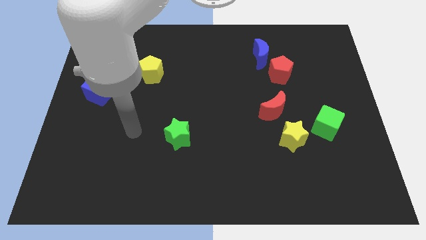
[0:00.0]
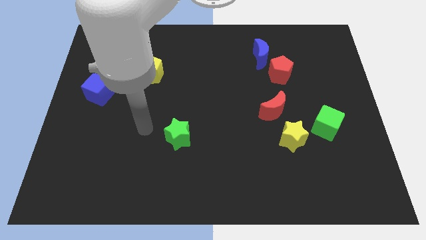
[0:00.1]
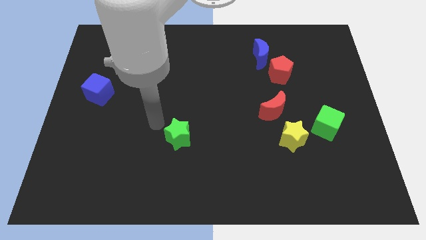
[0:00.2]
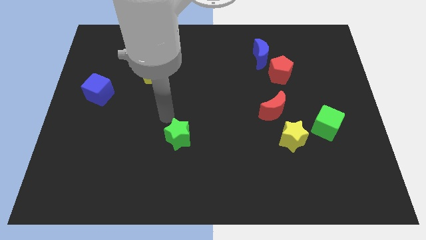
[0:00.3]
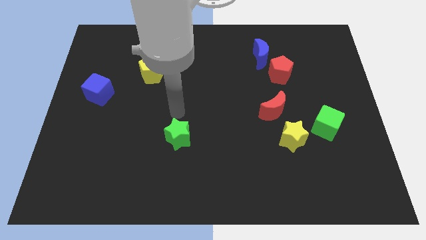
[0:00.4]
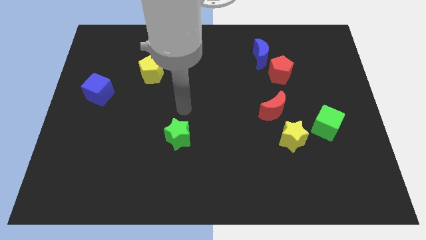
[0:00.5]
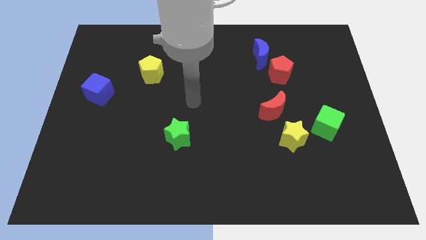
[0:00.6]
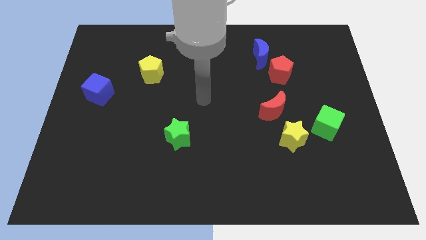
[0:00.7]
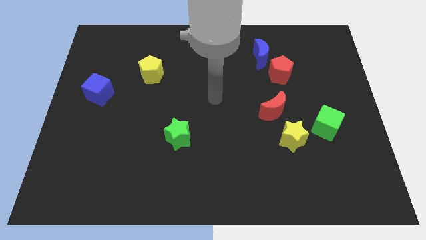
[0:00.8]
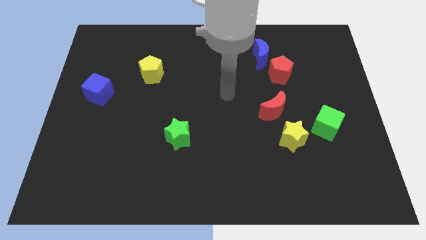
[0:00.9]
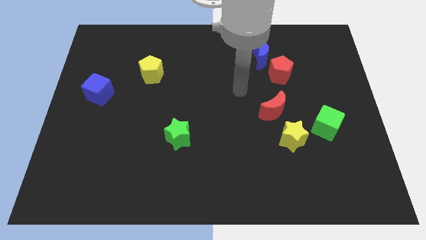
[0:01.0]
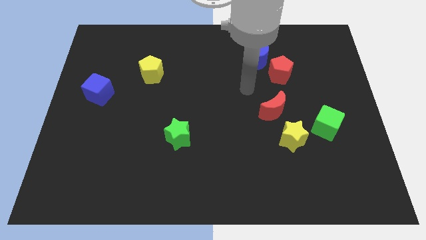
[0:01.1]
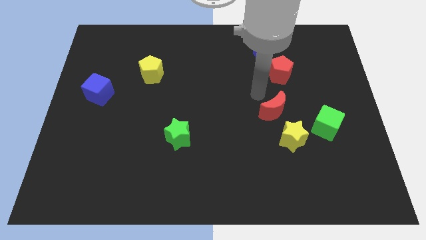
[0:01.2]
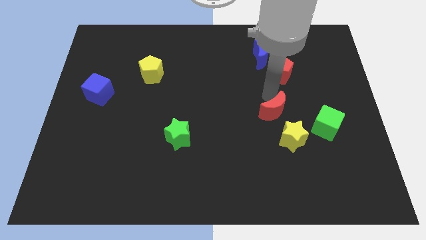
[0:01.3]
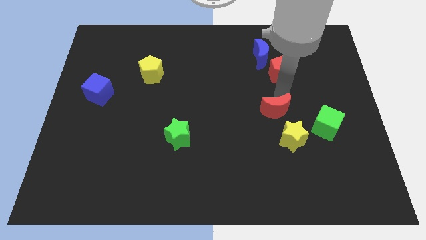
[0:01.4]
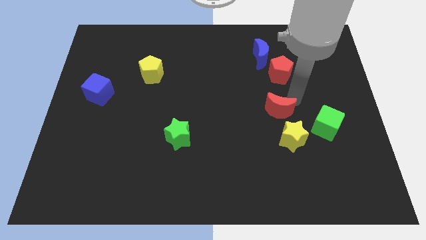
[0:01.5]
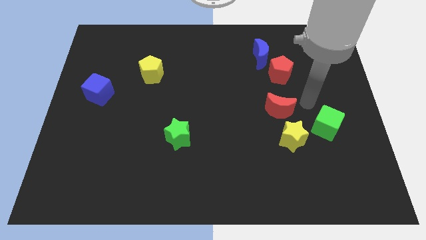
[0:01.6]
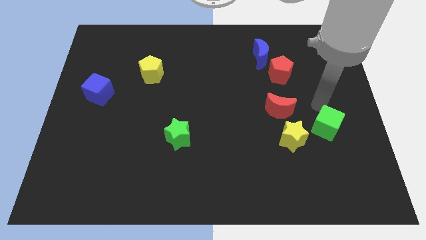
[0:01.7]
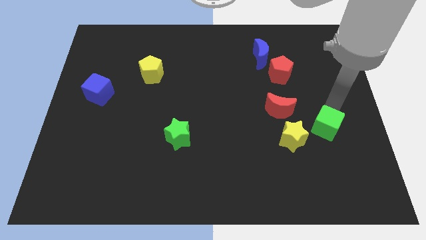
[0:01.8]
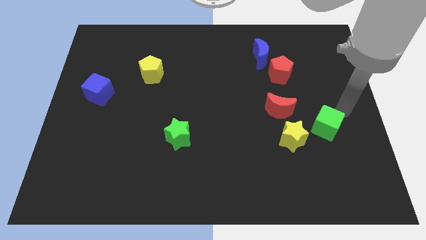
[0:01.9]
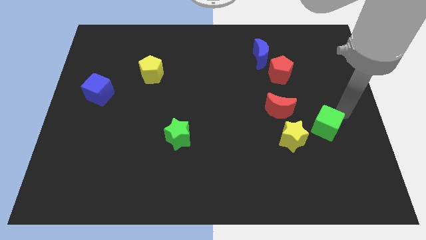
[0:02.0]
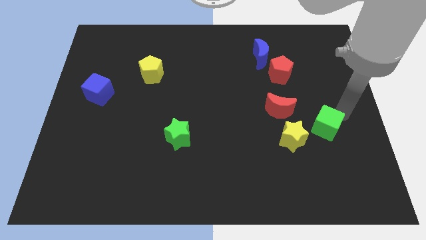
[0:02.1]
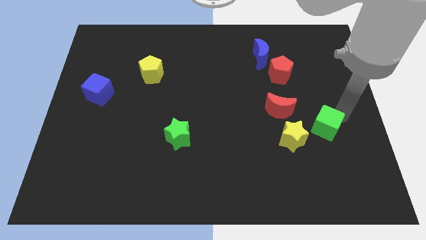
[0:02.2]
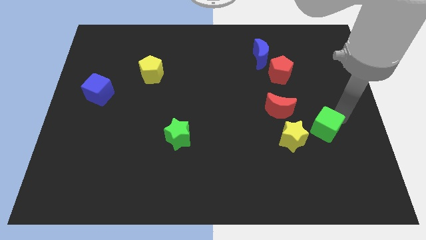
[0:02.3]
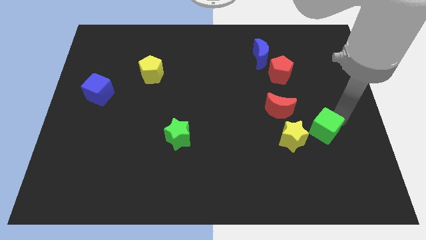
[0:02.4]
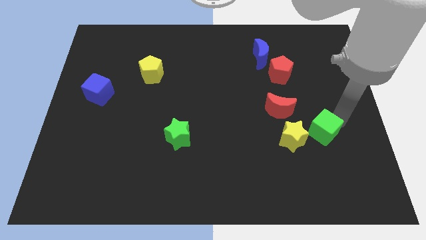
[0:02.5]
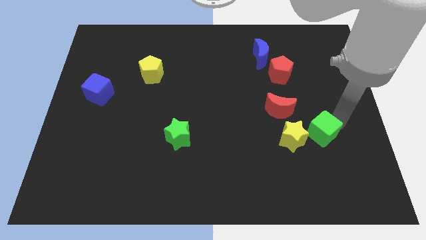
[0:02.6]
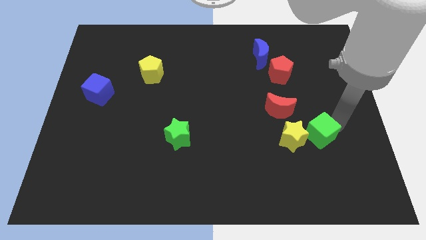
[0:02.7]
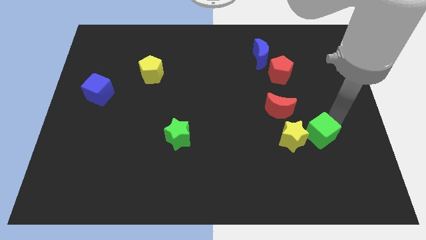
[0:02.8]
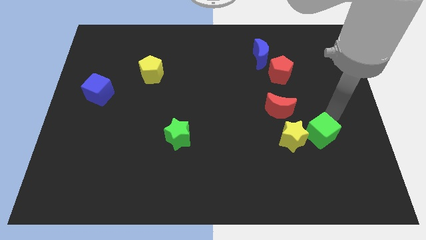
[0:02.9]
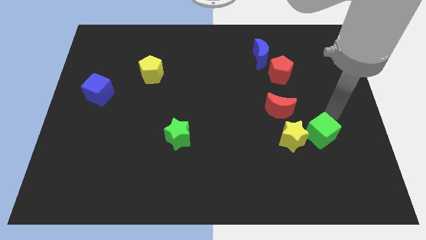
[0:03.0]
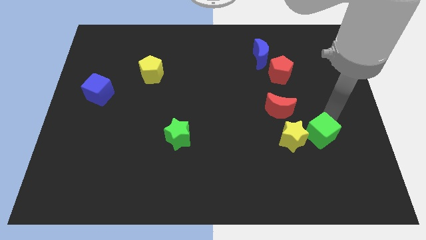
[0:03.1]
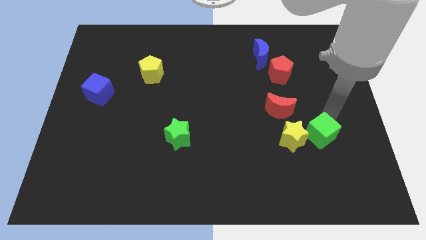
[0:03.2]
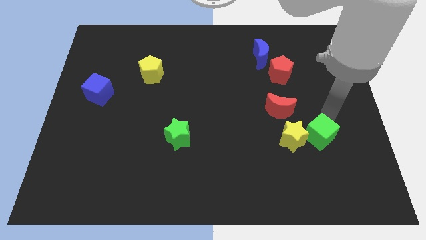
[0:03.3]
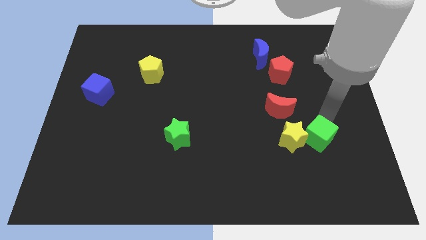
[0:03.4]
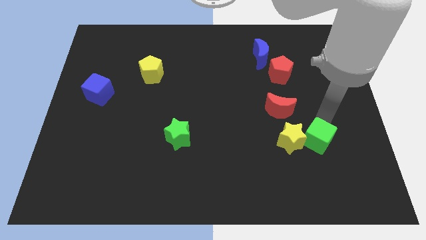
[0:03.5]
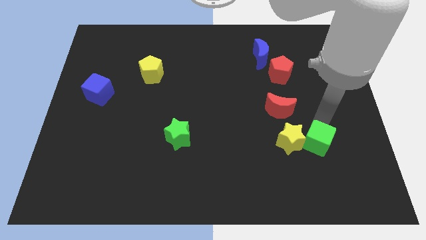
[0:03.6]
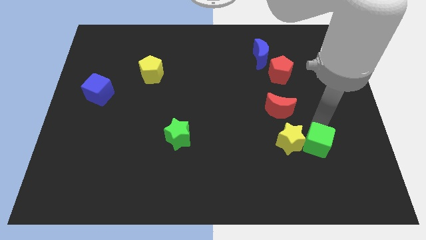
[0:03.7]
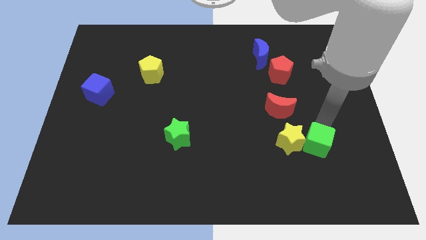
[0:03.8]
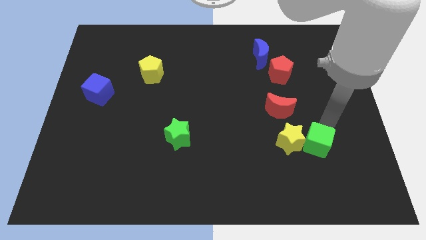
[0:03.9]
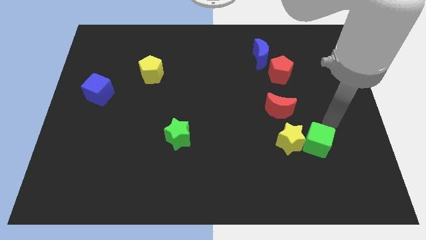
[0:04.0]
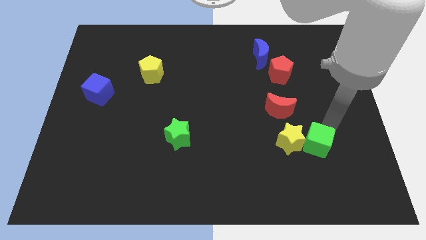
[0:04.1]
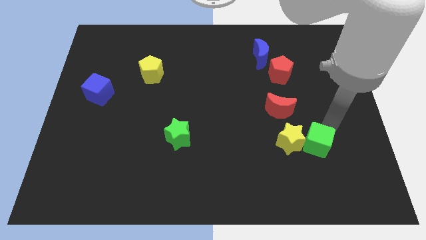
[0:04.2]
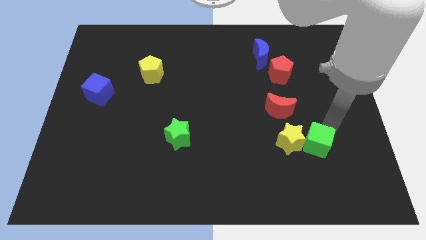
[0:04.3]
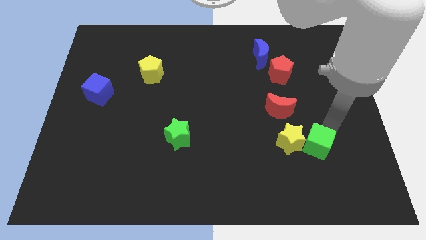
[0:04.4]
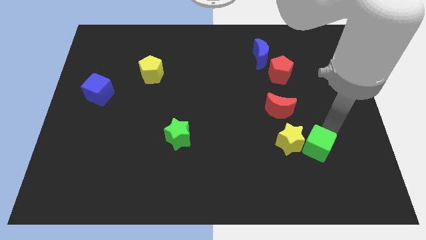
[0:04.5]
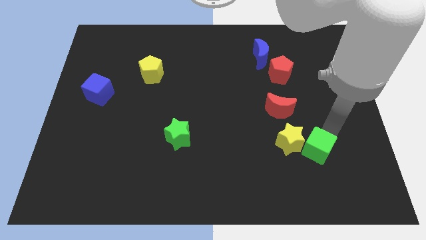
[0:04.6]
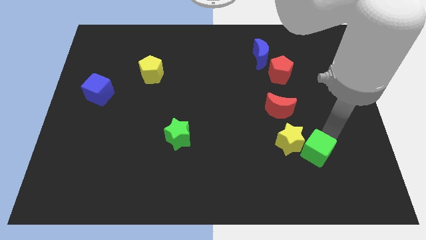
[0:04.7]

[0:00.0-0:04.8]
push the green cube downwards and to the left diagonally slightly

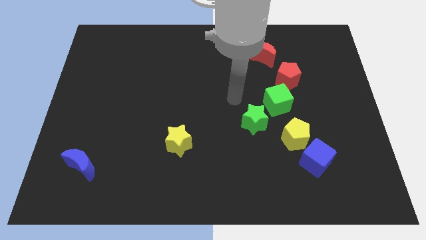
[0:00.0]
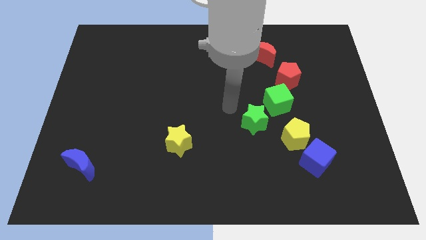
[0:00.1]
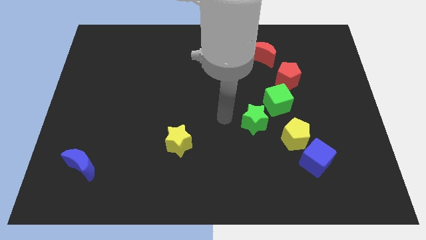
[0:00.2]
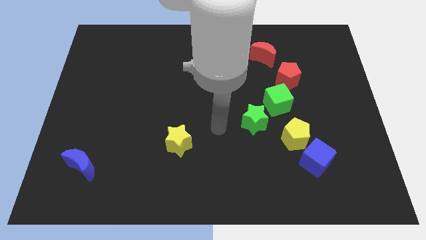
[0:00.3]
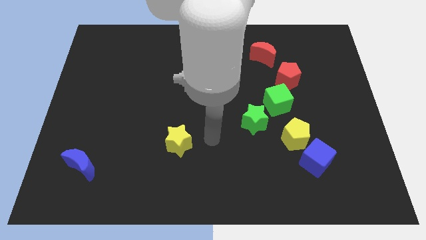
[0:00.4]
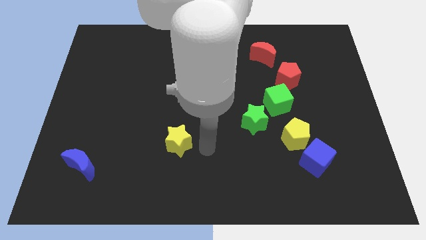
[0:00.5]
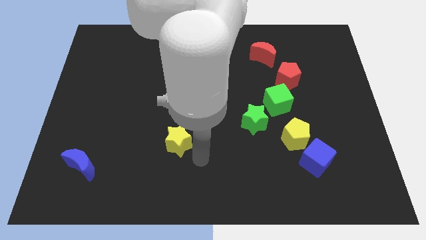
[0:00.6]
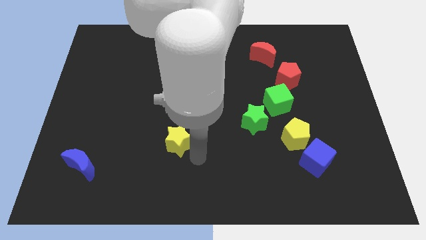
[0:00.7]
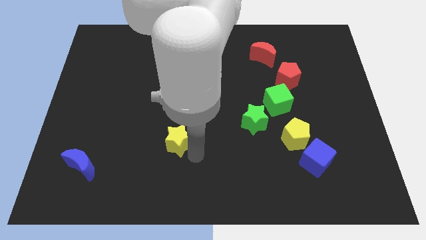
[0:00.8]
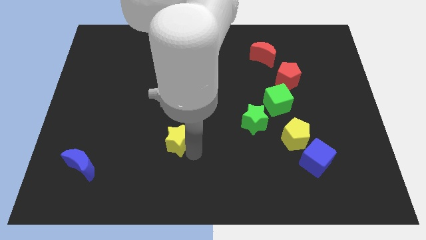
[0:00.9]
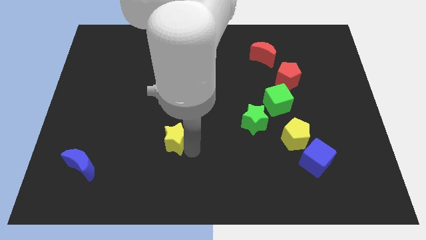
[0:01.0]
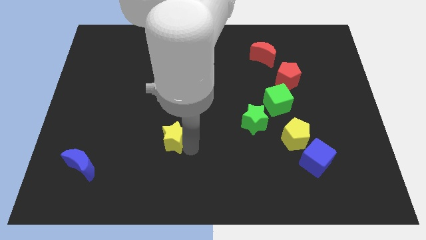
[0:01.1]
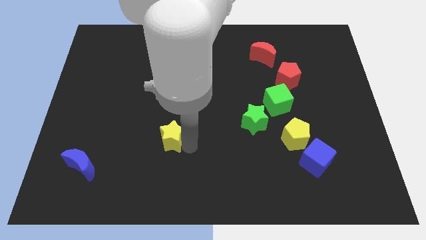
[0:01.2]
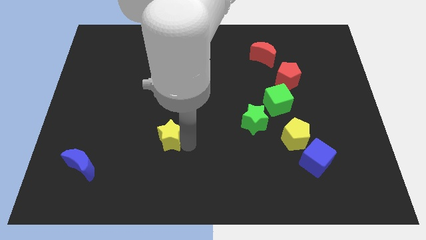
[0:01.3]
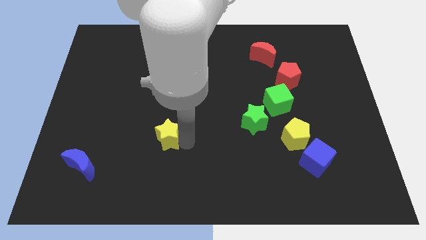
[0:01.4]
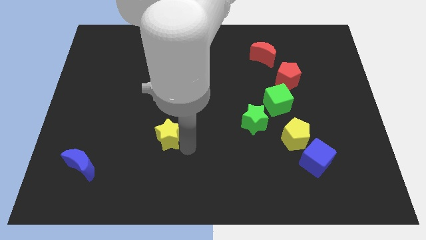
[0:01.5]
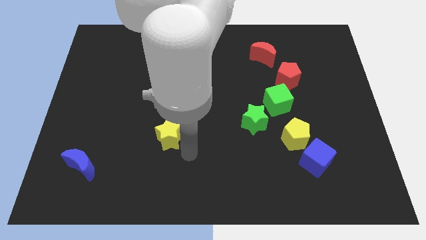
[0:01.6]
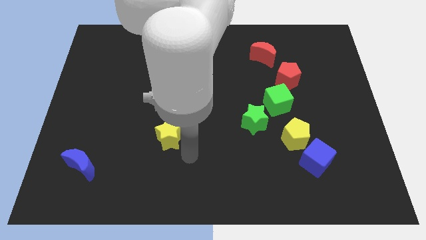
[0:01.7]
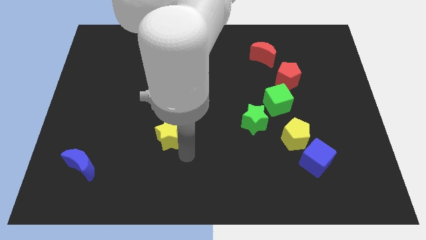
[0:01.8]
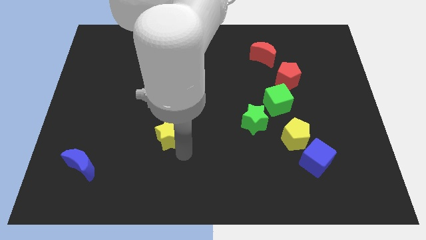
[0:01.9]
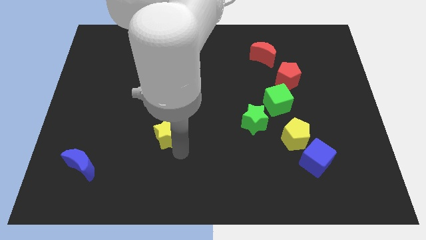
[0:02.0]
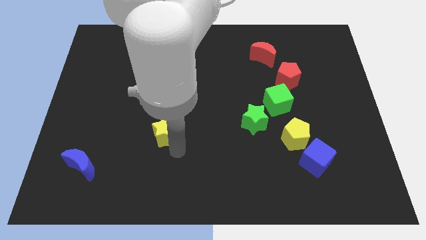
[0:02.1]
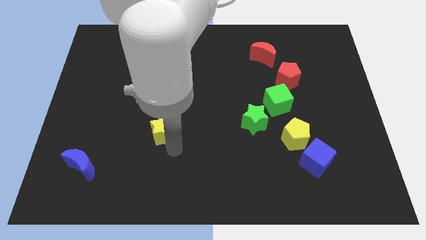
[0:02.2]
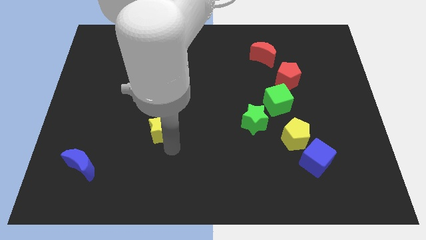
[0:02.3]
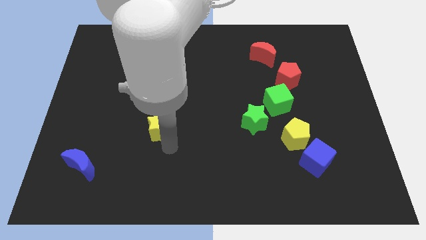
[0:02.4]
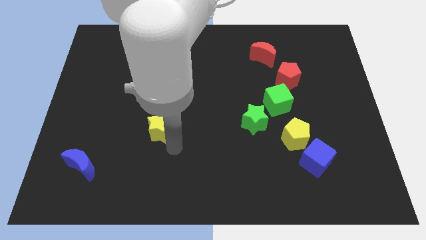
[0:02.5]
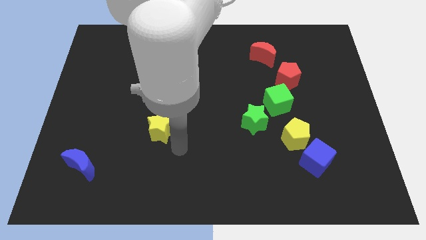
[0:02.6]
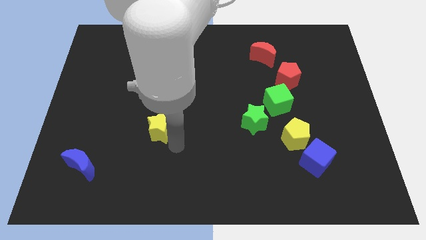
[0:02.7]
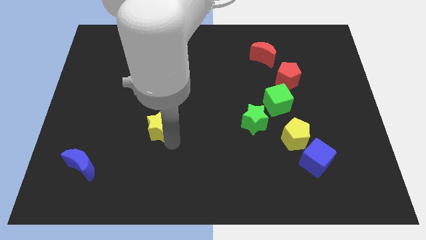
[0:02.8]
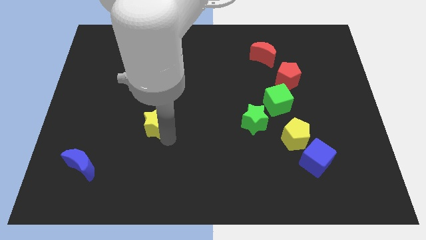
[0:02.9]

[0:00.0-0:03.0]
move the yellow star slightly up and to the left diagonally

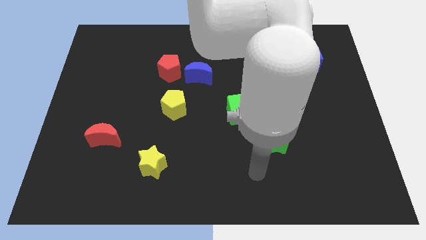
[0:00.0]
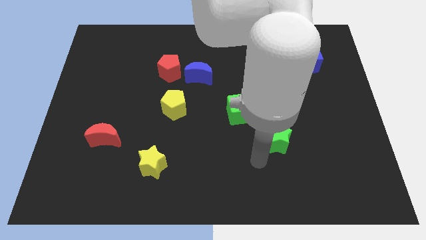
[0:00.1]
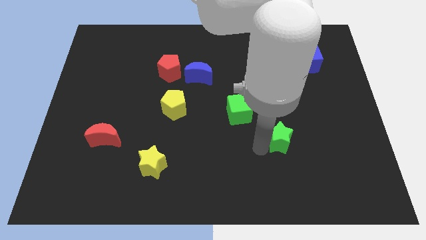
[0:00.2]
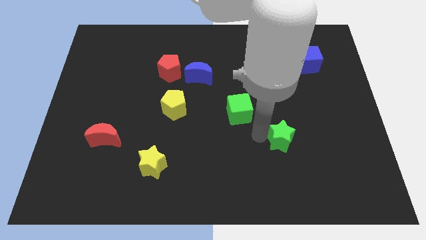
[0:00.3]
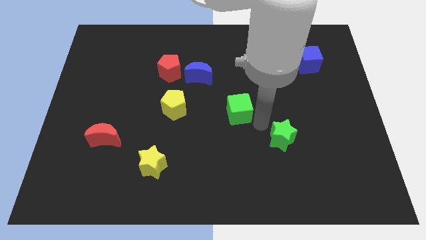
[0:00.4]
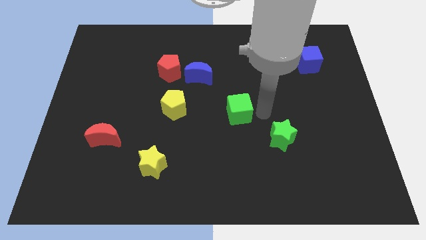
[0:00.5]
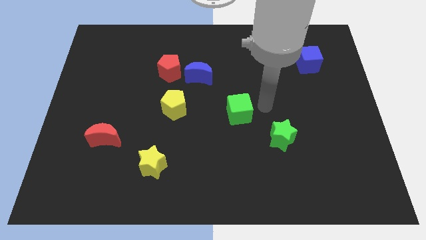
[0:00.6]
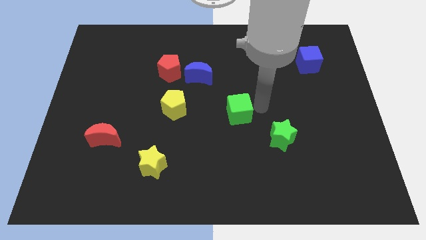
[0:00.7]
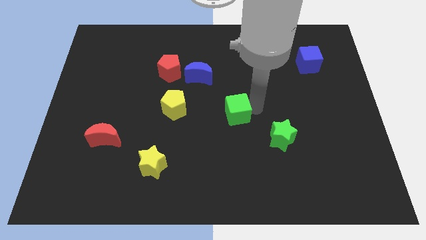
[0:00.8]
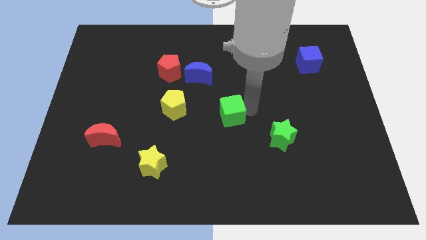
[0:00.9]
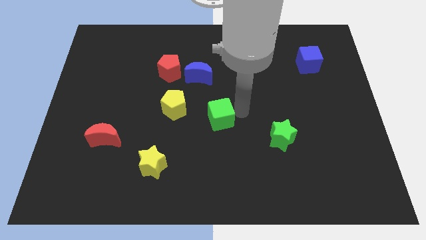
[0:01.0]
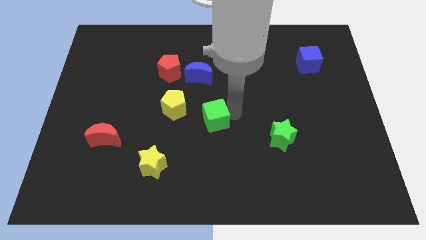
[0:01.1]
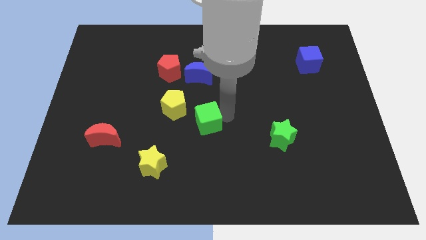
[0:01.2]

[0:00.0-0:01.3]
move the green cube somewhat left
